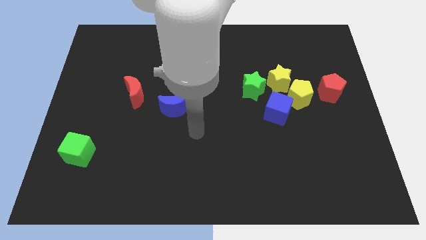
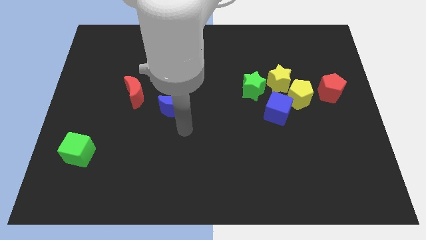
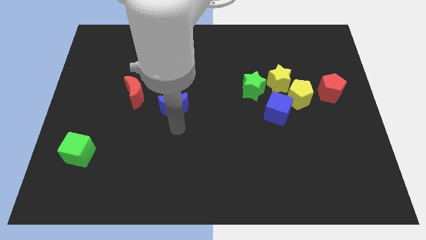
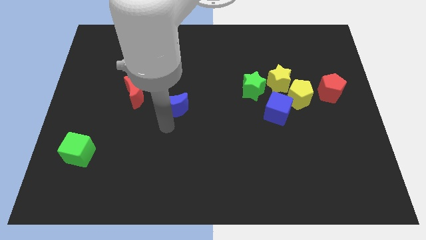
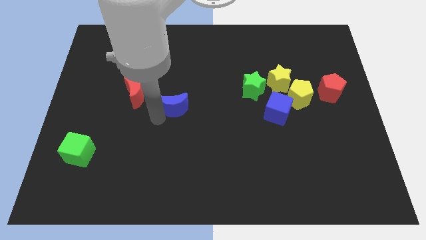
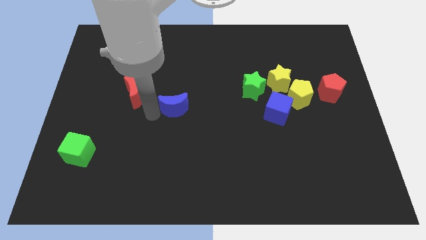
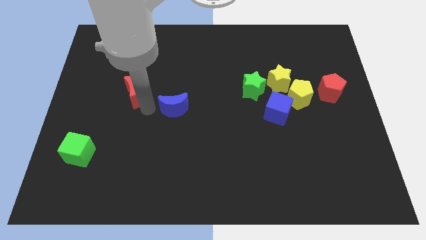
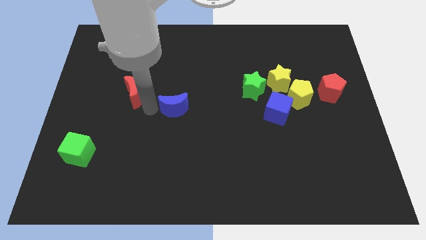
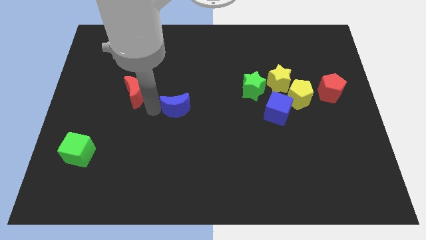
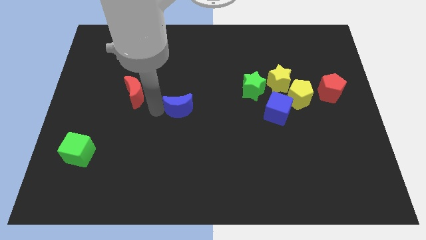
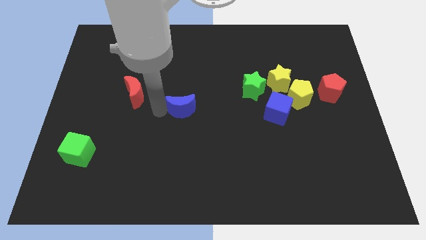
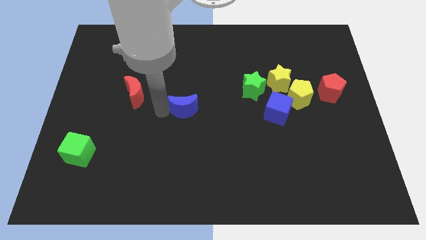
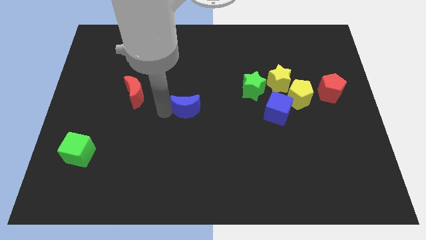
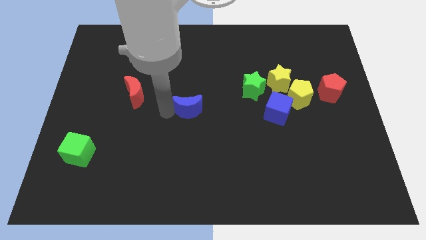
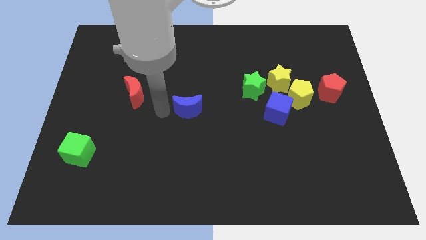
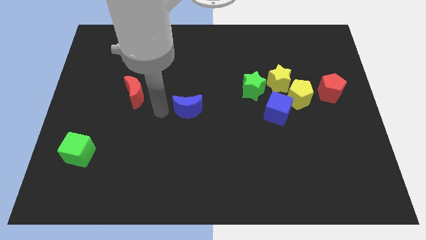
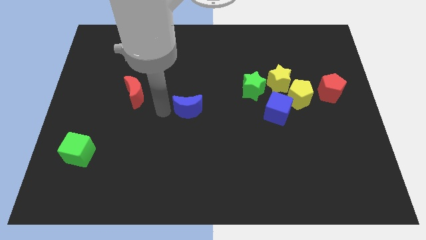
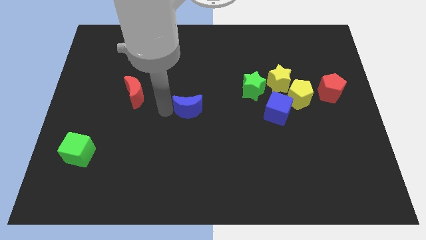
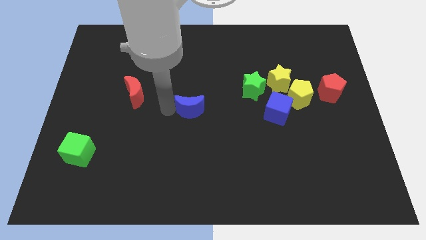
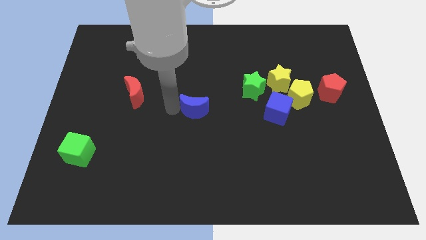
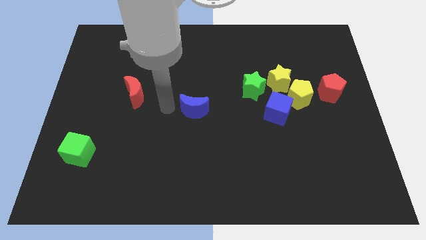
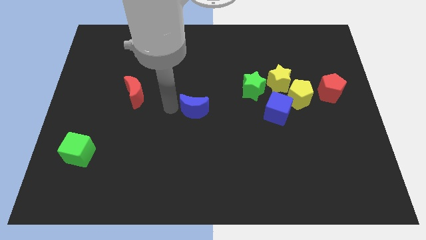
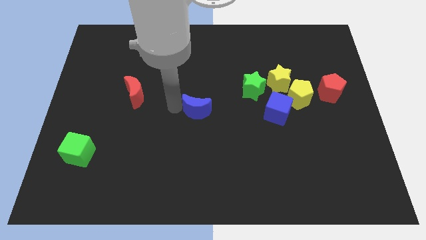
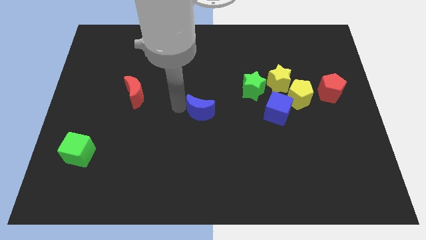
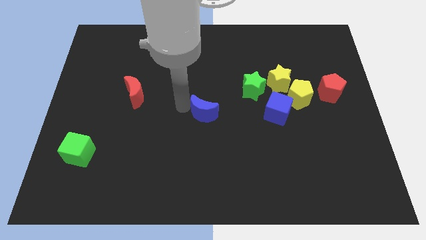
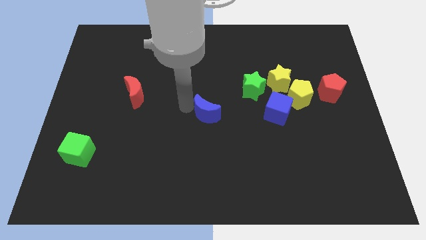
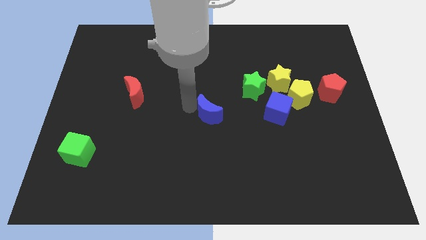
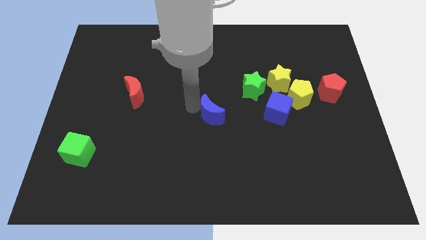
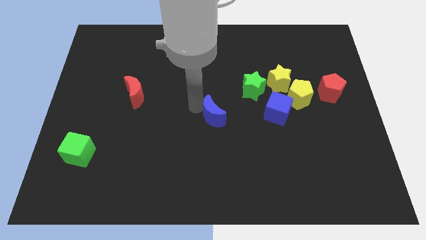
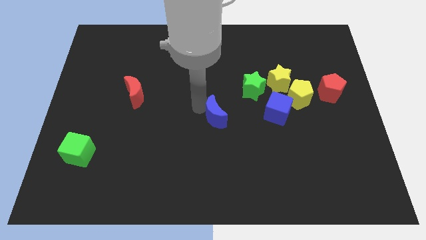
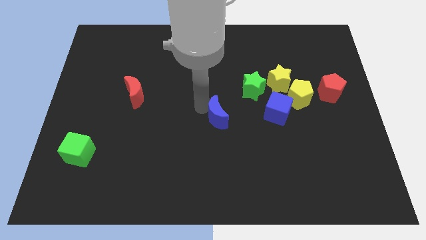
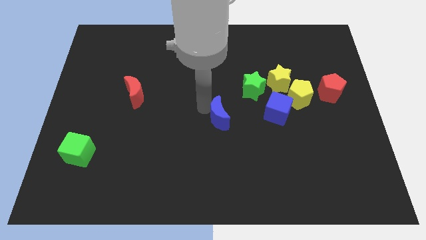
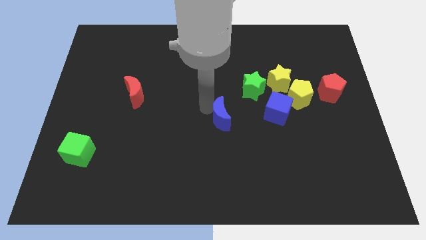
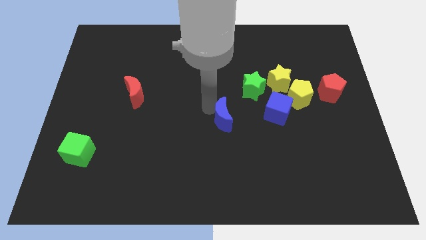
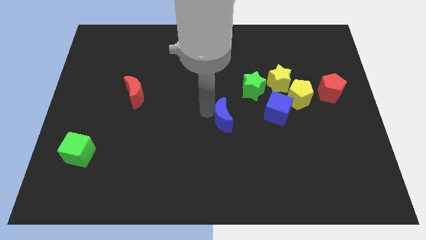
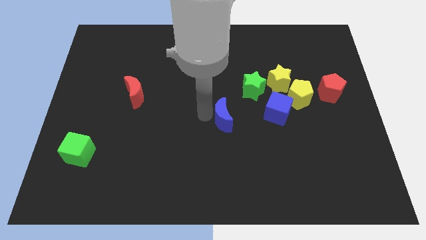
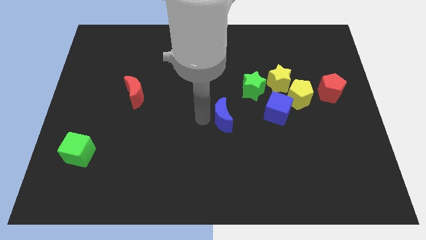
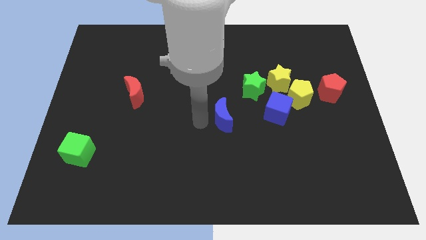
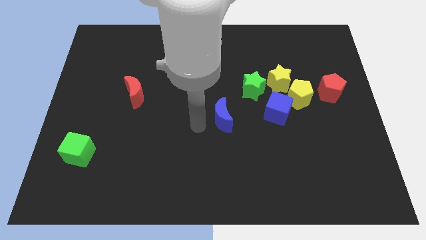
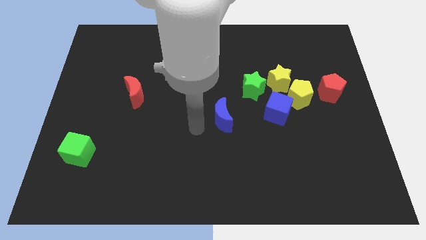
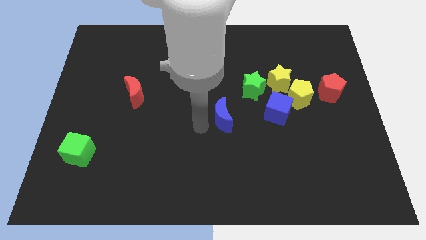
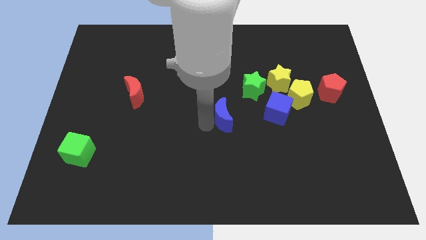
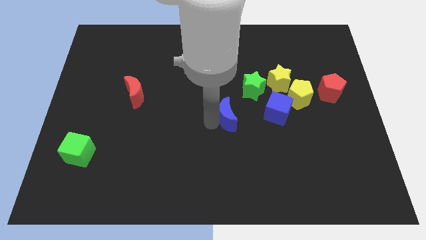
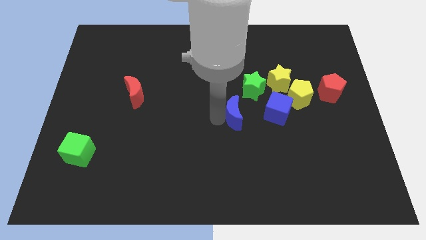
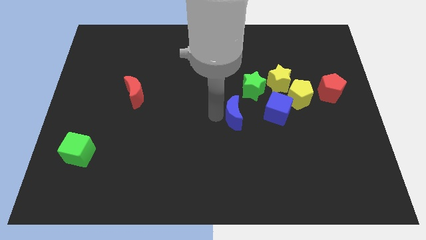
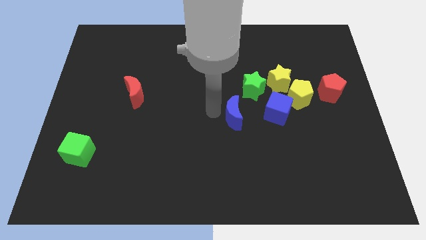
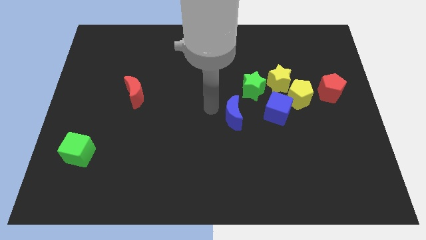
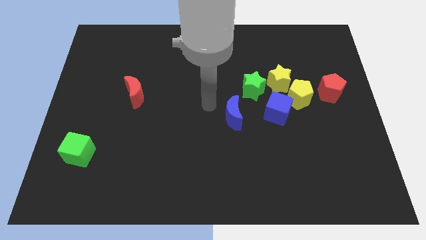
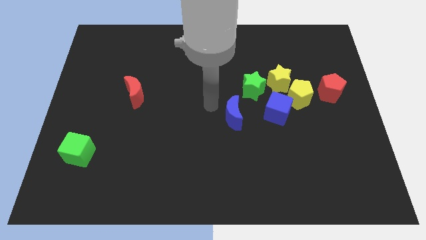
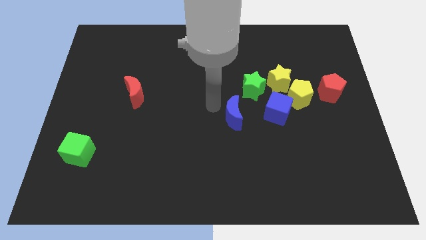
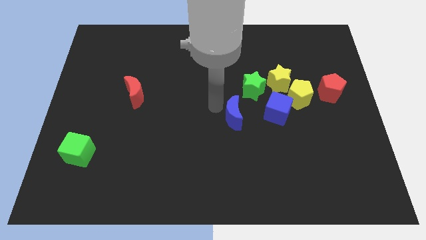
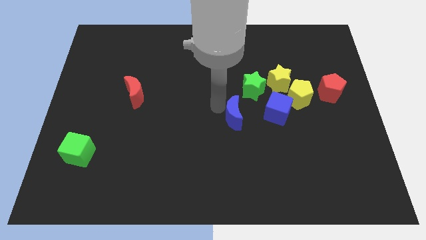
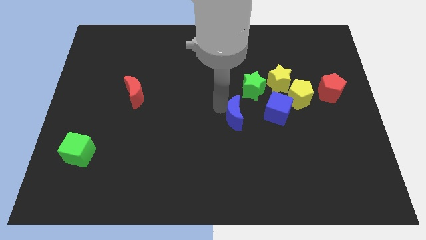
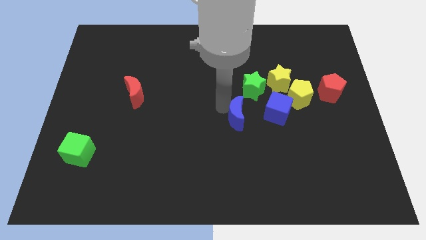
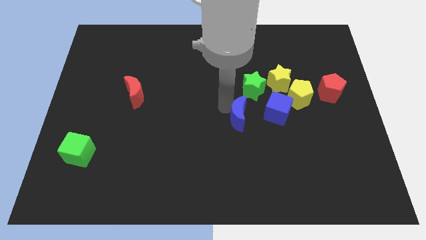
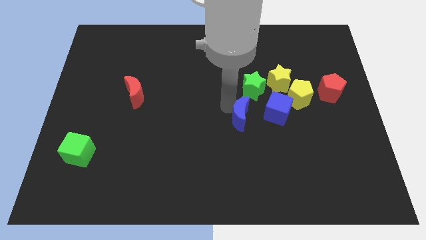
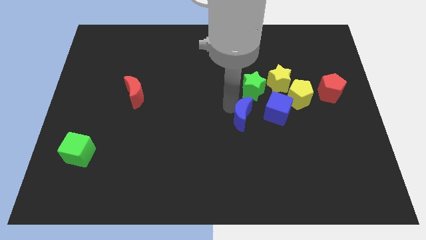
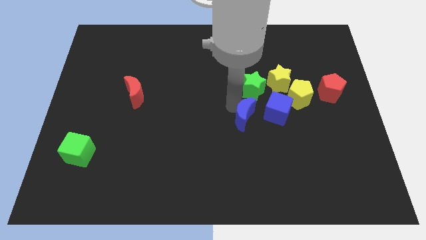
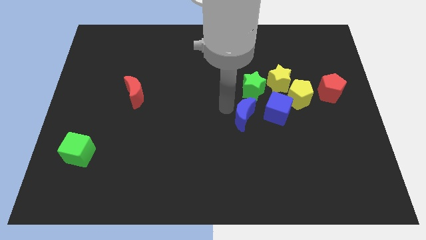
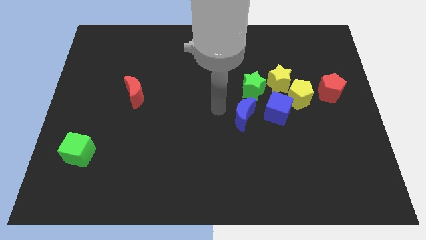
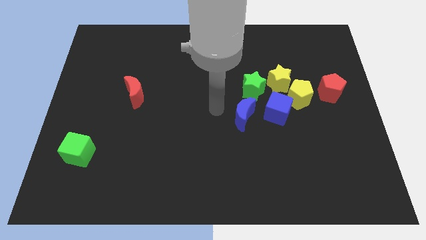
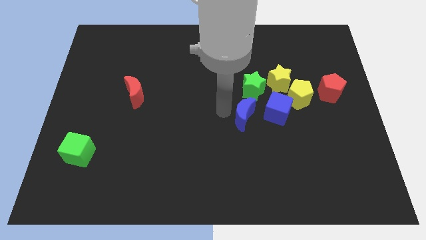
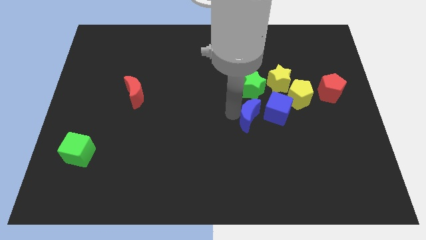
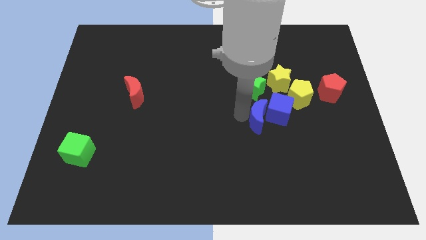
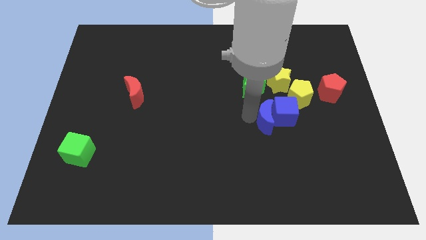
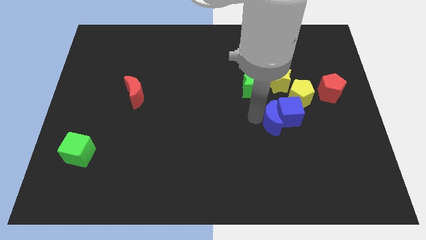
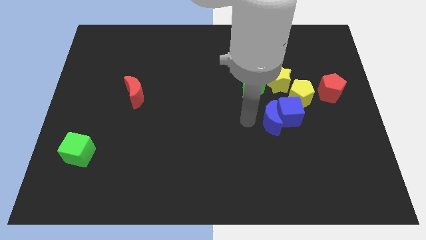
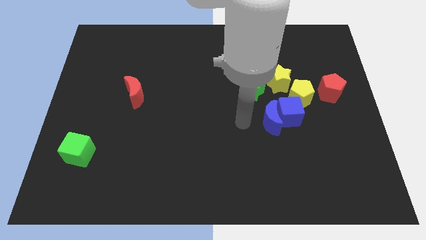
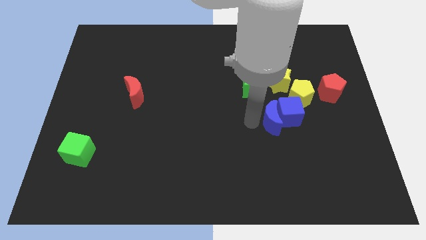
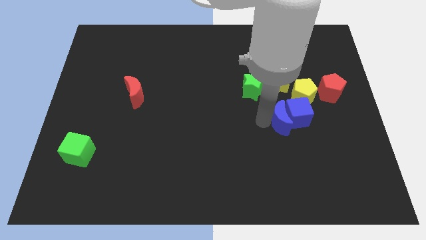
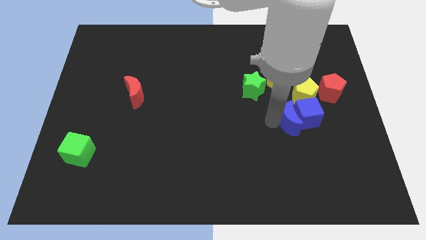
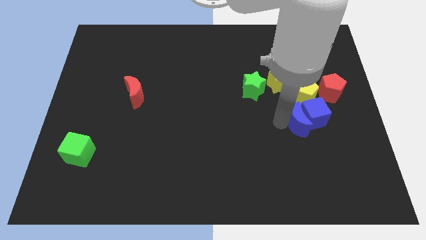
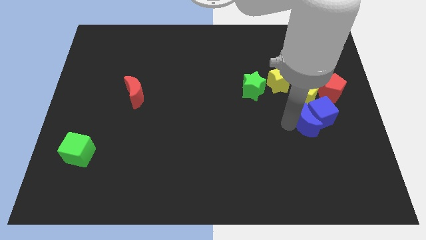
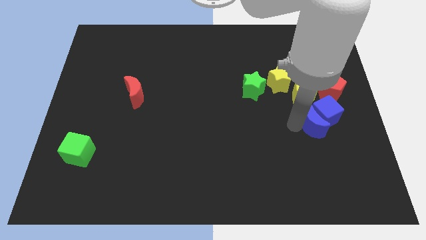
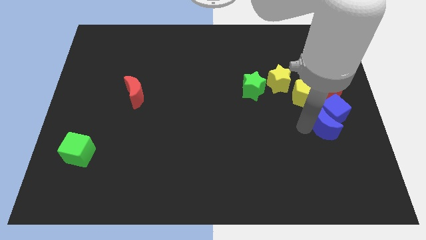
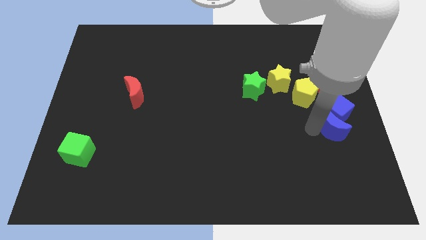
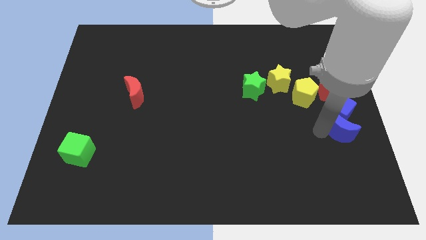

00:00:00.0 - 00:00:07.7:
put the blue moon to the center right

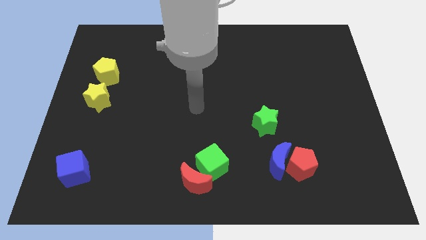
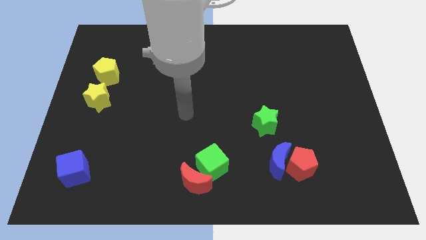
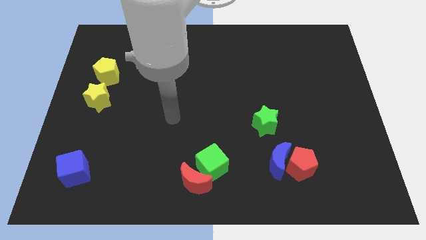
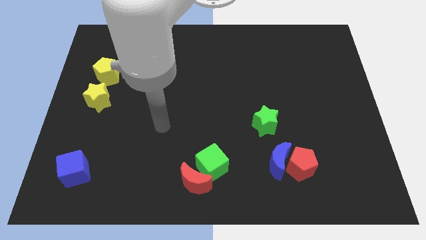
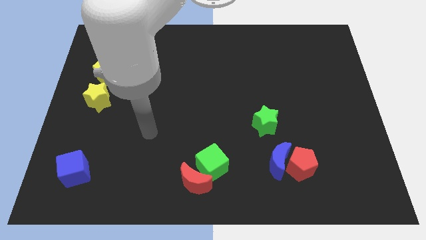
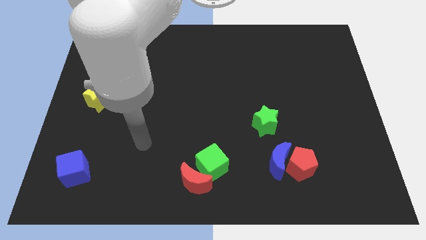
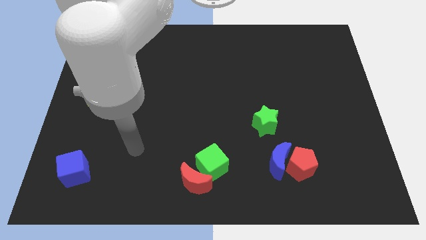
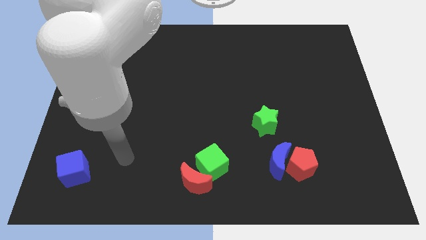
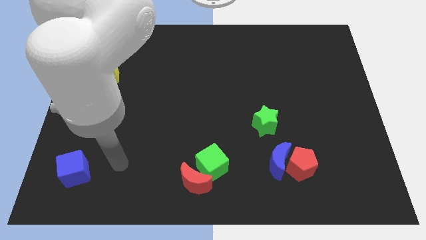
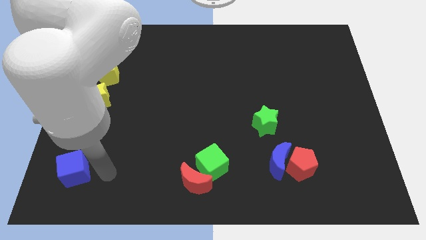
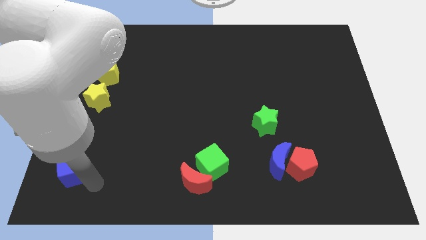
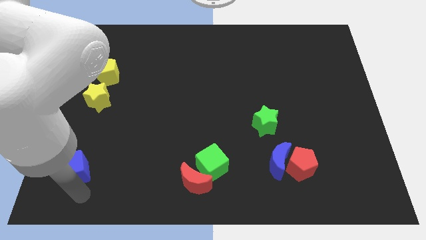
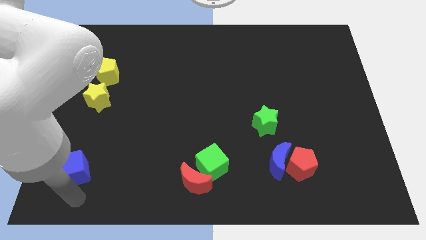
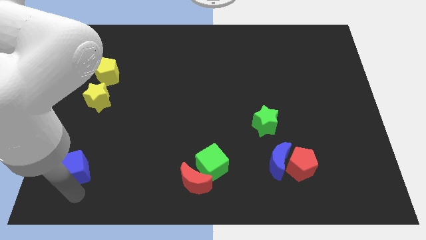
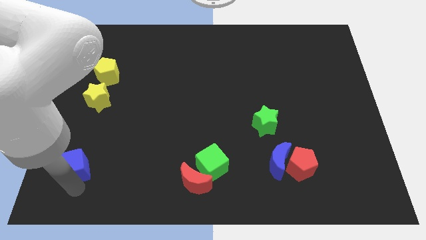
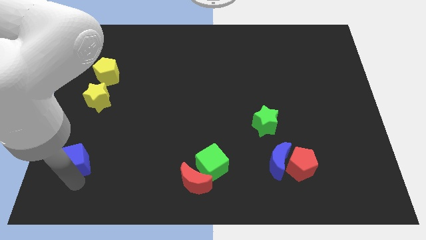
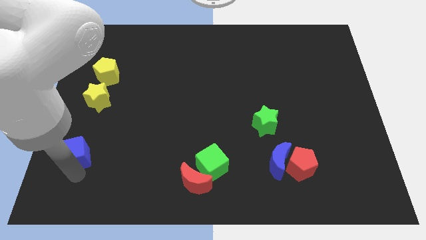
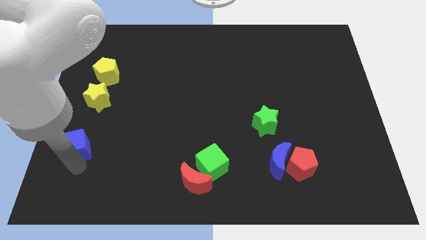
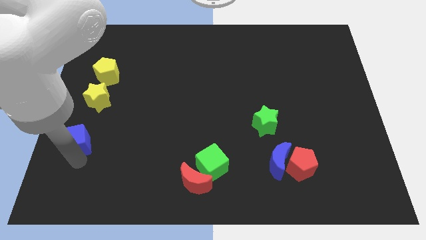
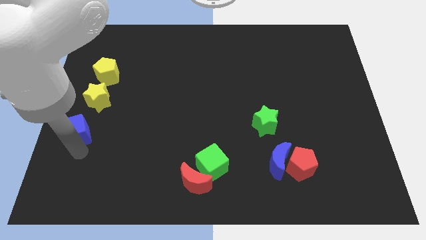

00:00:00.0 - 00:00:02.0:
move the blue cube to the center left
